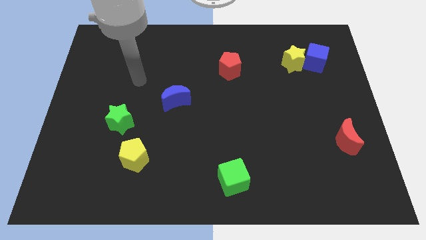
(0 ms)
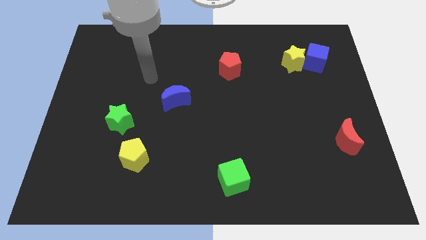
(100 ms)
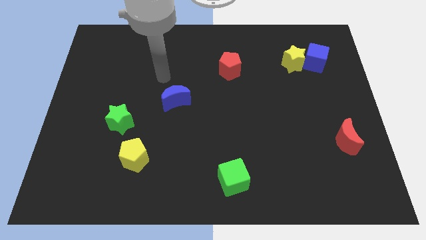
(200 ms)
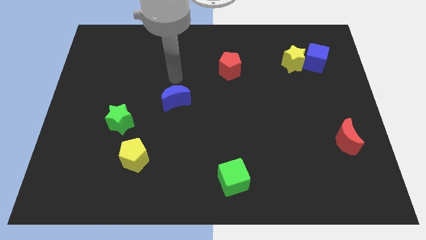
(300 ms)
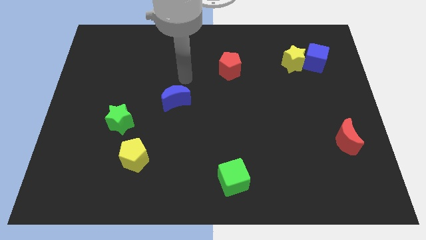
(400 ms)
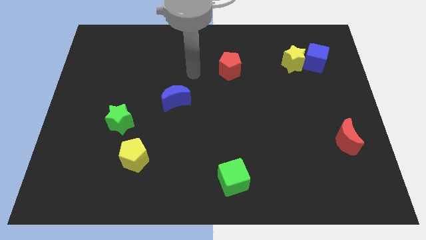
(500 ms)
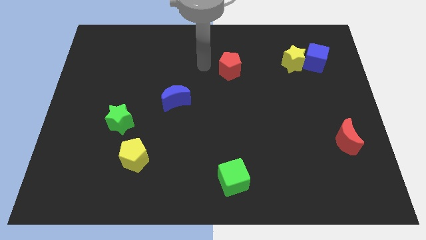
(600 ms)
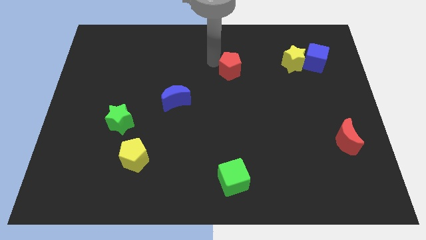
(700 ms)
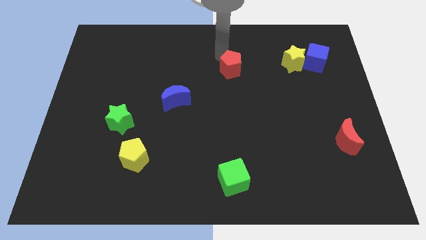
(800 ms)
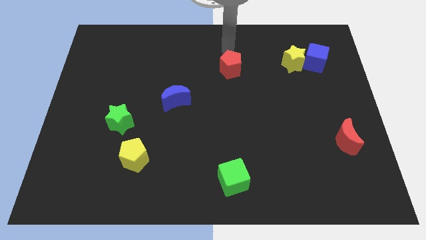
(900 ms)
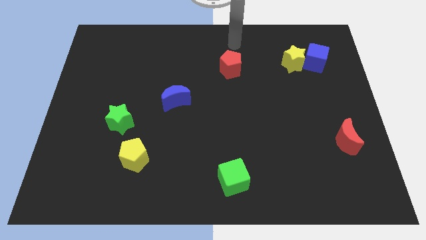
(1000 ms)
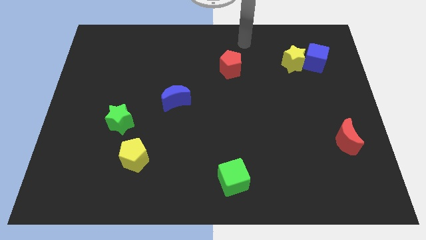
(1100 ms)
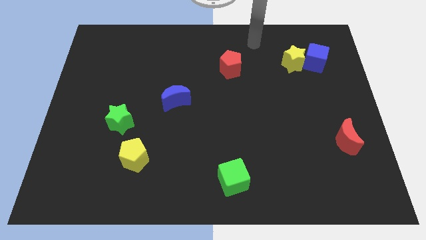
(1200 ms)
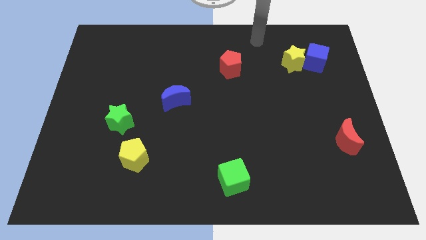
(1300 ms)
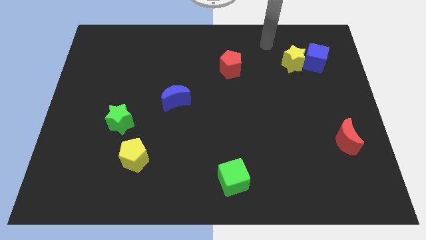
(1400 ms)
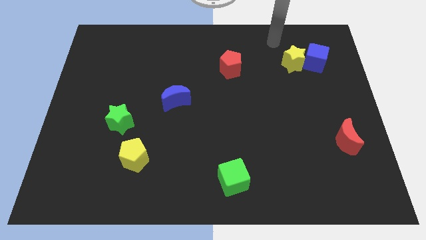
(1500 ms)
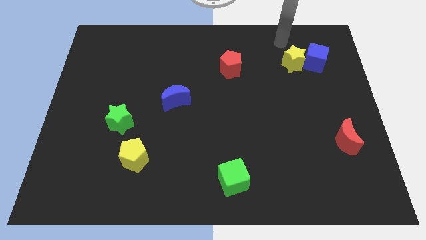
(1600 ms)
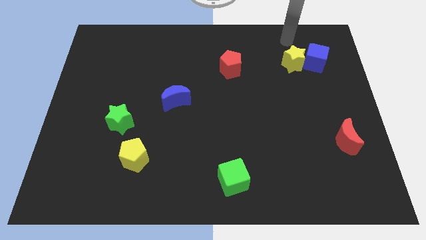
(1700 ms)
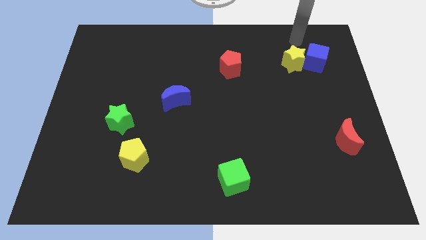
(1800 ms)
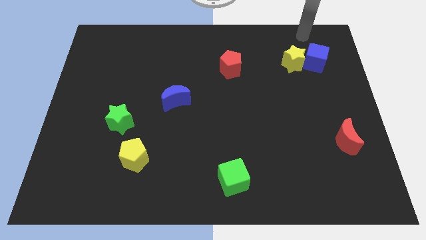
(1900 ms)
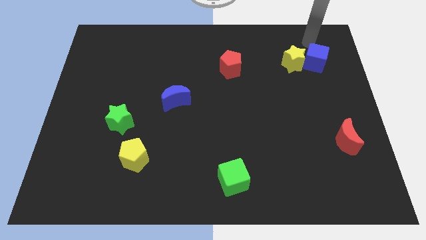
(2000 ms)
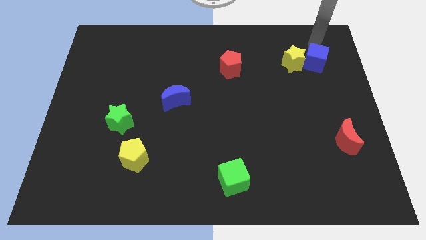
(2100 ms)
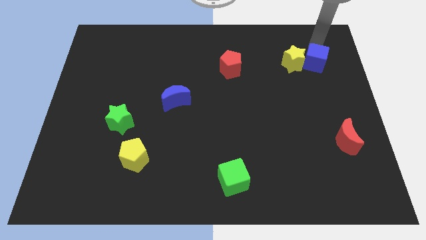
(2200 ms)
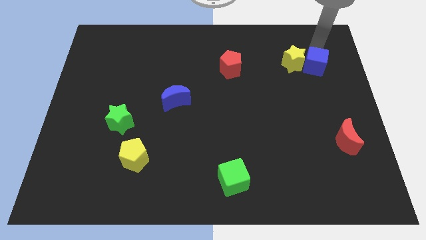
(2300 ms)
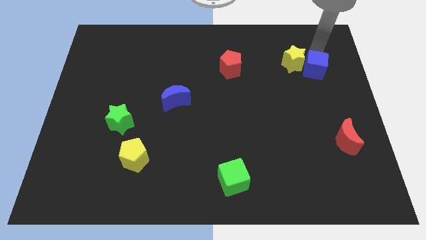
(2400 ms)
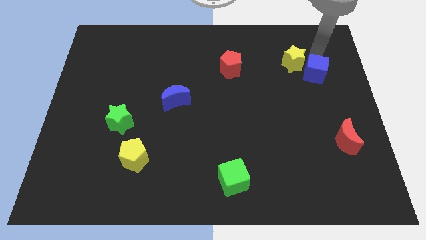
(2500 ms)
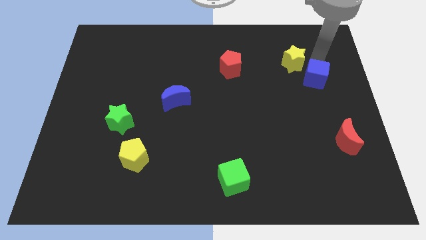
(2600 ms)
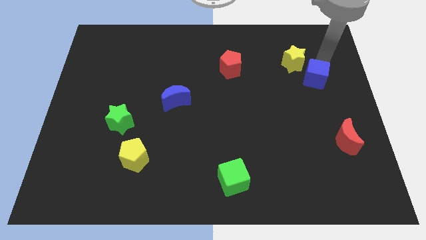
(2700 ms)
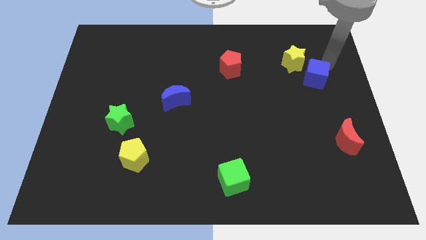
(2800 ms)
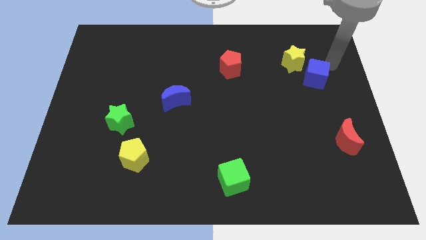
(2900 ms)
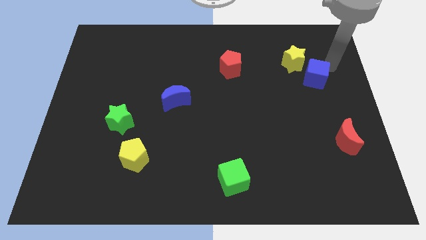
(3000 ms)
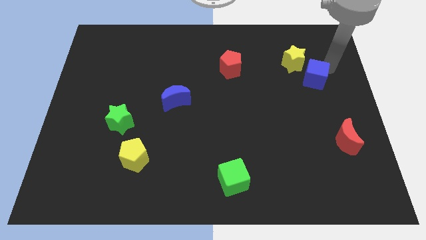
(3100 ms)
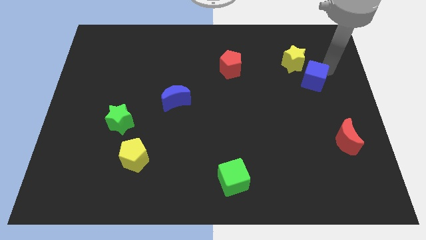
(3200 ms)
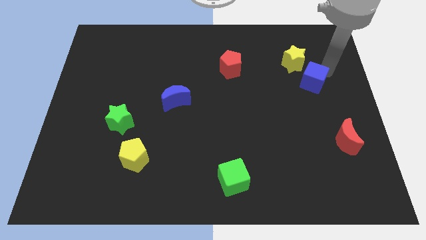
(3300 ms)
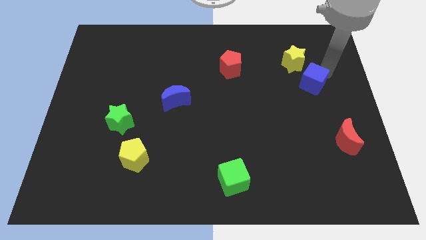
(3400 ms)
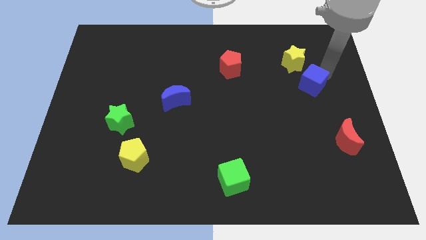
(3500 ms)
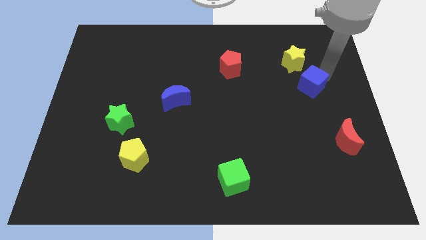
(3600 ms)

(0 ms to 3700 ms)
slightly slide the blue cube downwards and to the left diagonally

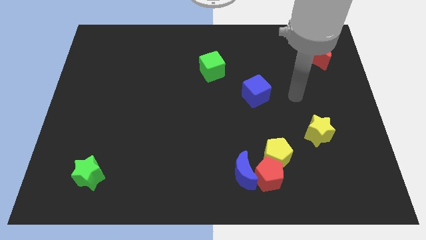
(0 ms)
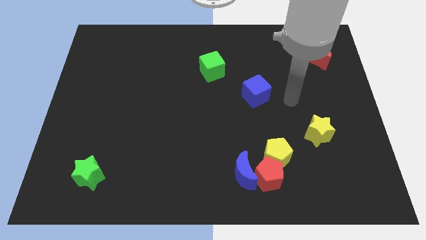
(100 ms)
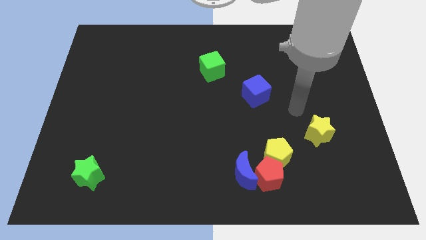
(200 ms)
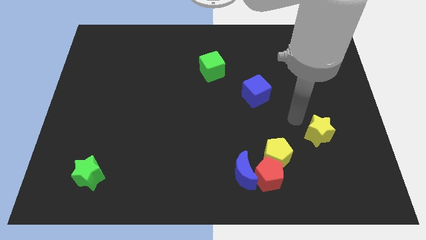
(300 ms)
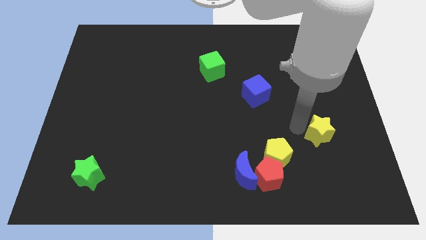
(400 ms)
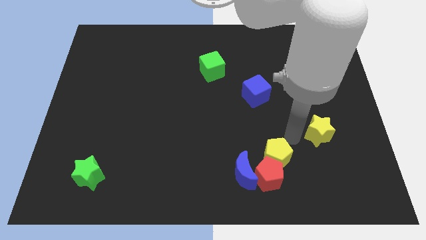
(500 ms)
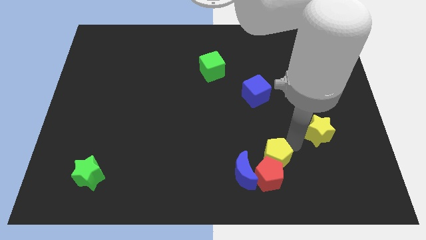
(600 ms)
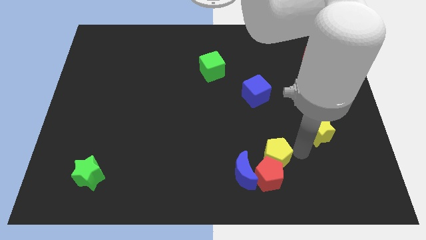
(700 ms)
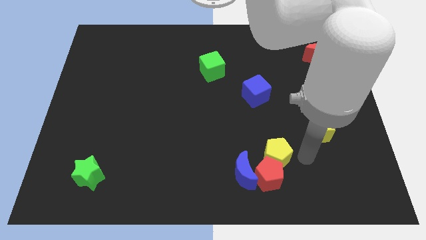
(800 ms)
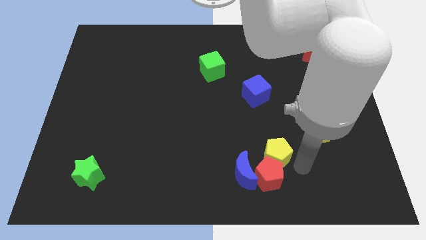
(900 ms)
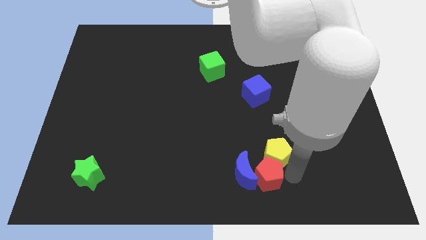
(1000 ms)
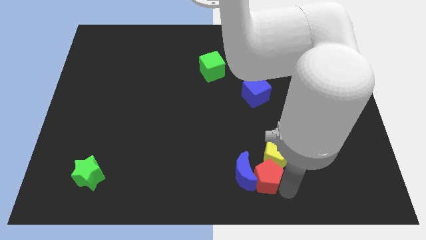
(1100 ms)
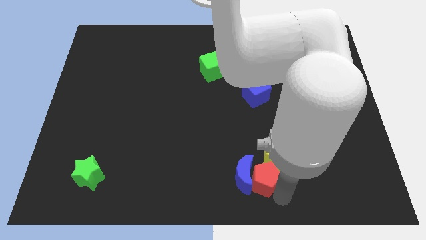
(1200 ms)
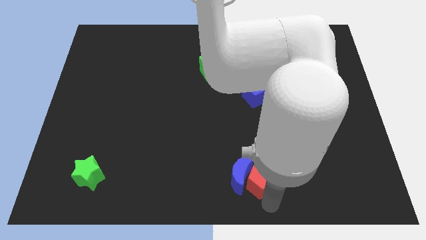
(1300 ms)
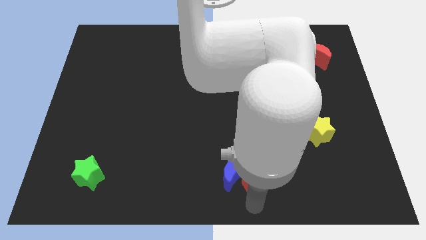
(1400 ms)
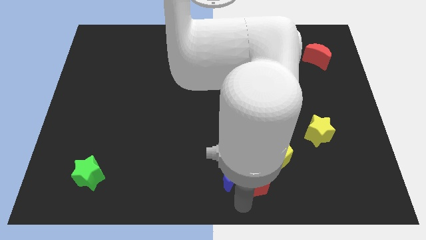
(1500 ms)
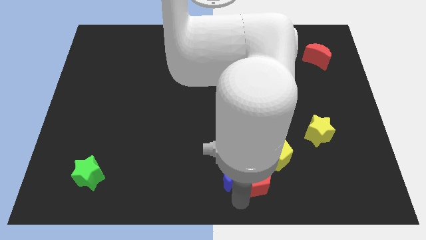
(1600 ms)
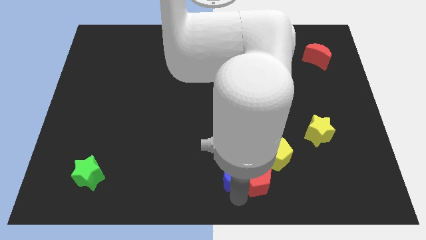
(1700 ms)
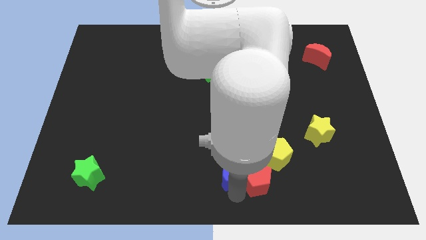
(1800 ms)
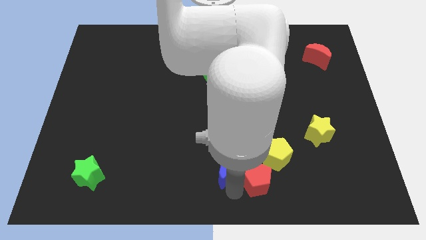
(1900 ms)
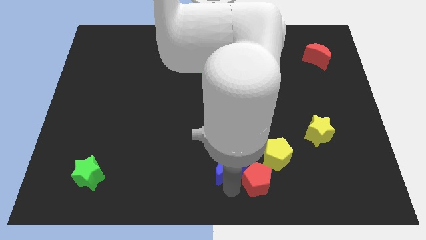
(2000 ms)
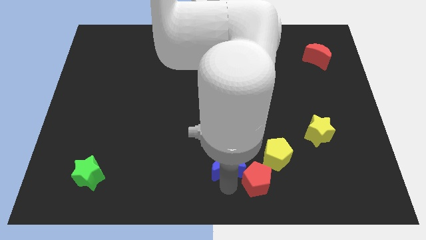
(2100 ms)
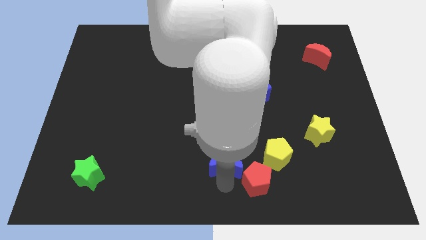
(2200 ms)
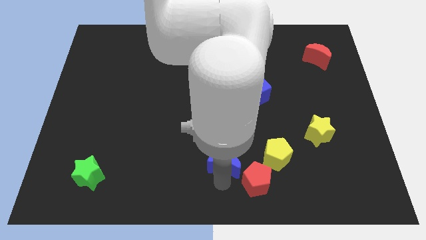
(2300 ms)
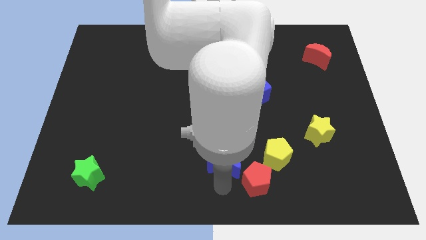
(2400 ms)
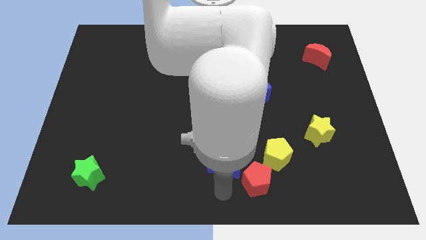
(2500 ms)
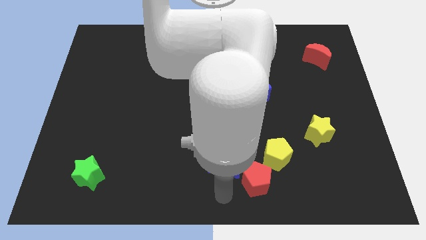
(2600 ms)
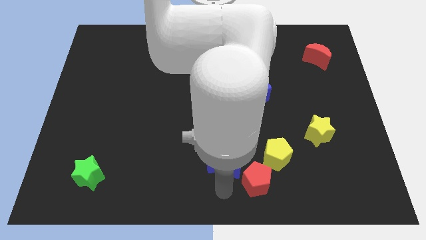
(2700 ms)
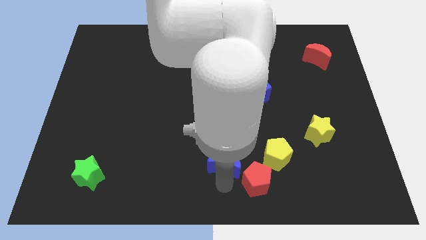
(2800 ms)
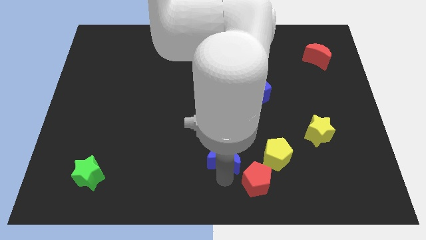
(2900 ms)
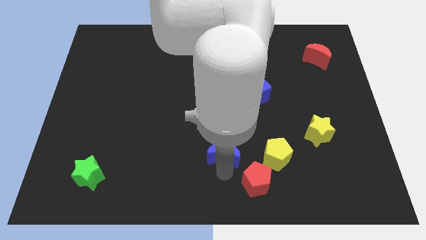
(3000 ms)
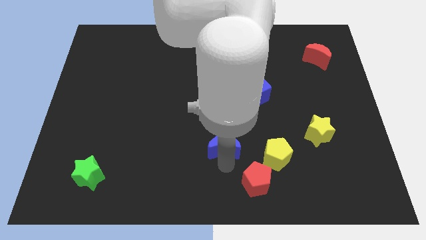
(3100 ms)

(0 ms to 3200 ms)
slightly move the blue moon up and to the left

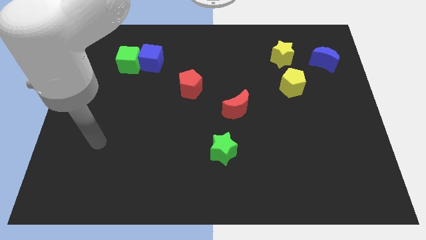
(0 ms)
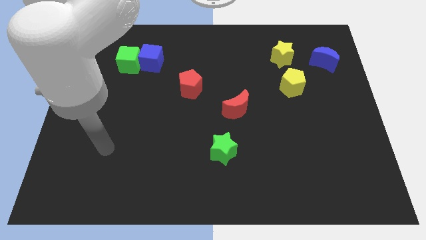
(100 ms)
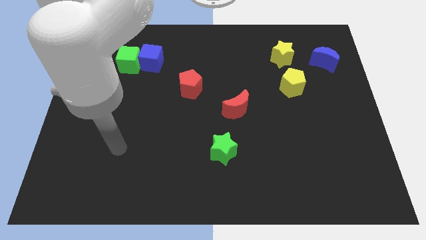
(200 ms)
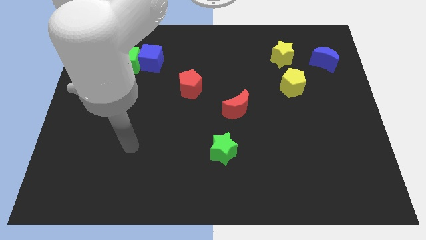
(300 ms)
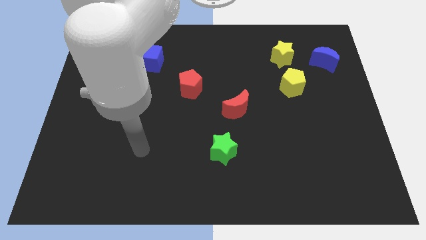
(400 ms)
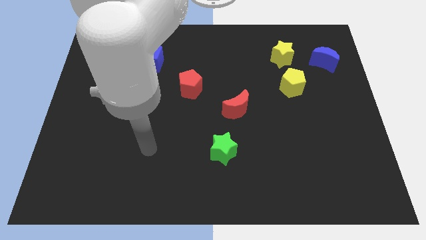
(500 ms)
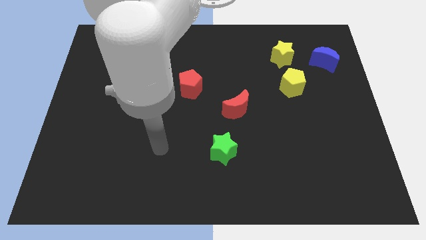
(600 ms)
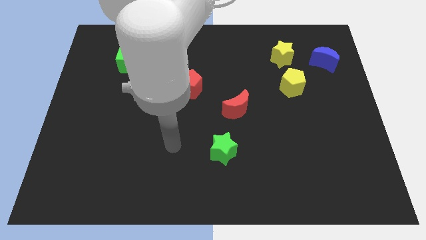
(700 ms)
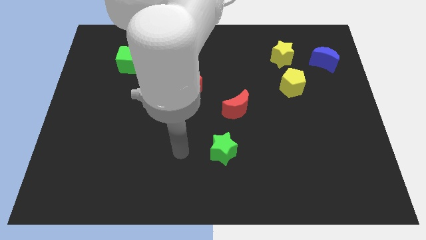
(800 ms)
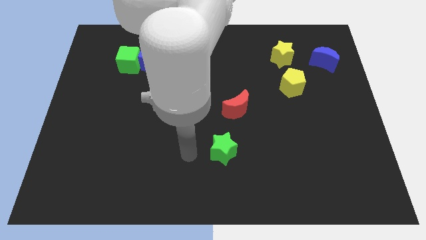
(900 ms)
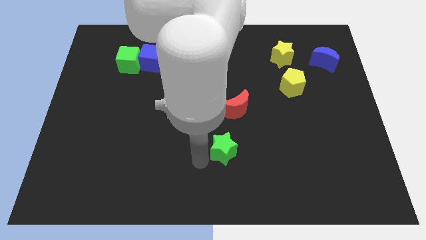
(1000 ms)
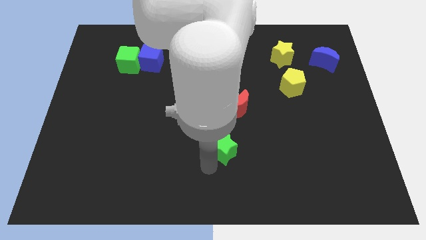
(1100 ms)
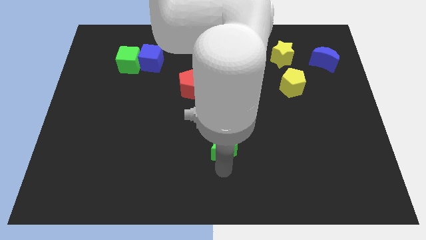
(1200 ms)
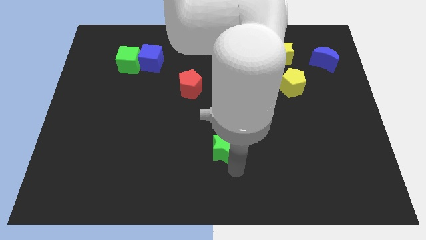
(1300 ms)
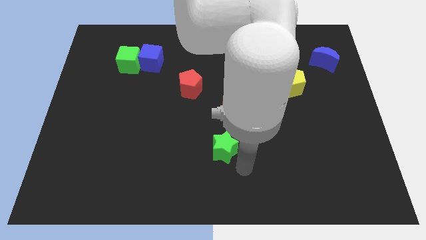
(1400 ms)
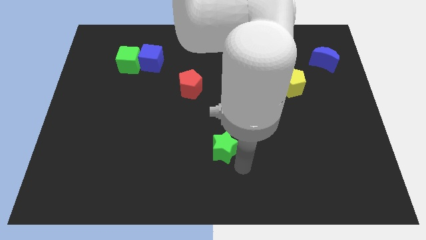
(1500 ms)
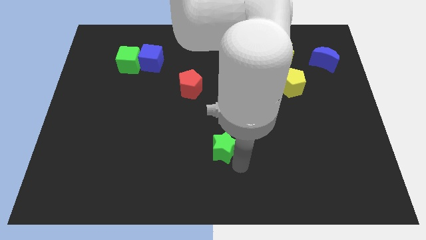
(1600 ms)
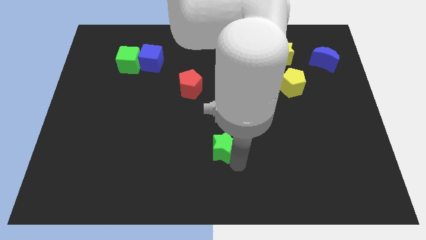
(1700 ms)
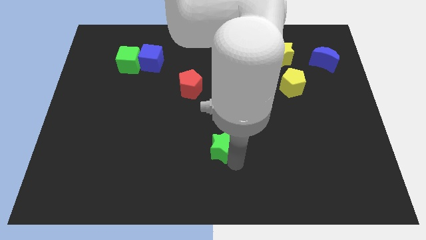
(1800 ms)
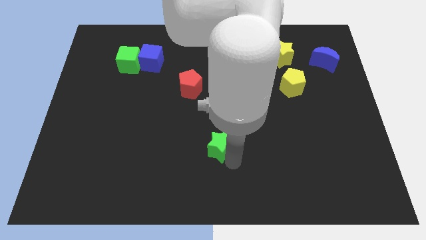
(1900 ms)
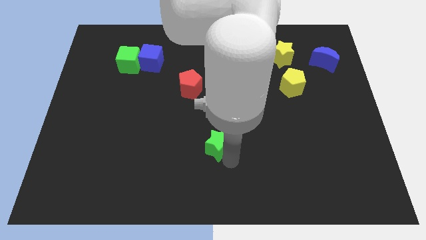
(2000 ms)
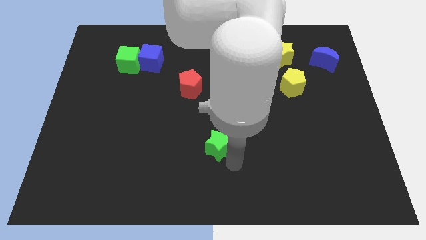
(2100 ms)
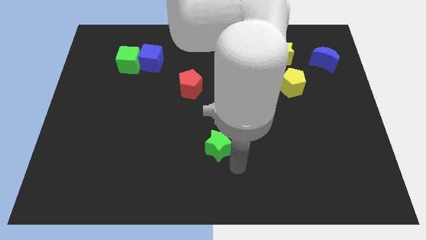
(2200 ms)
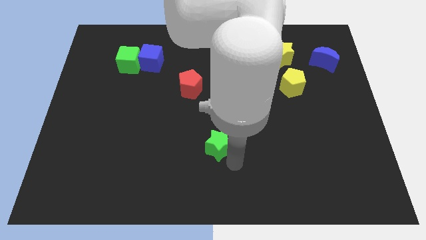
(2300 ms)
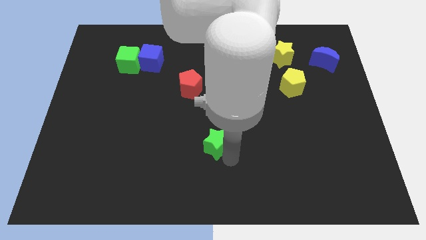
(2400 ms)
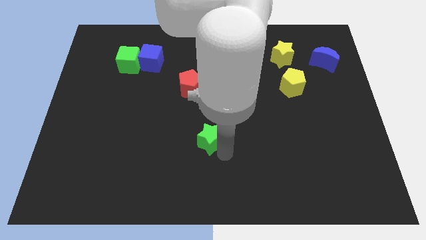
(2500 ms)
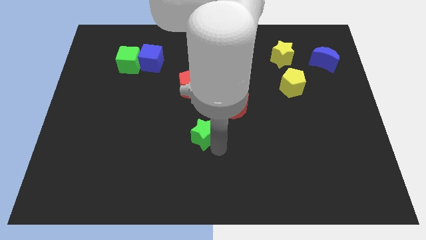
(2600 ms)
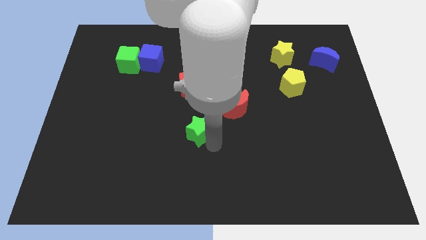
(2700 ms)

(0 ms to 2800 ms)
slightly push the green star diagonally upwards and to the left
